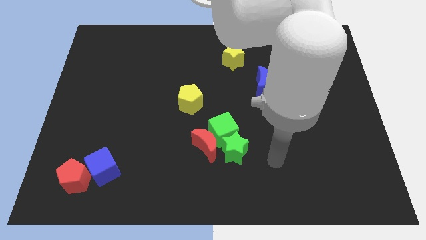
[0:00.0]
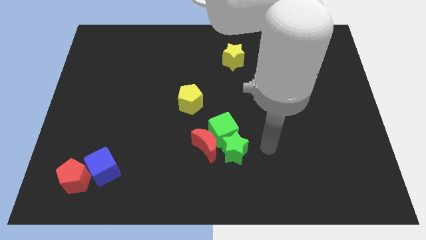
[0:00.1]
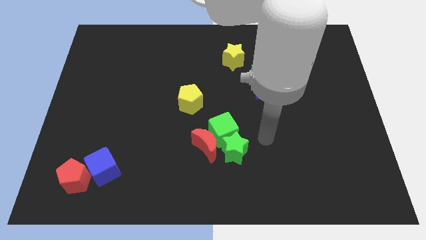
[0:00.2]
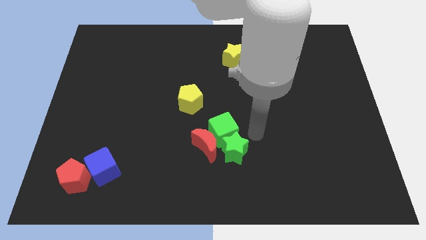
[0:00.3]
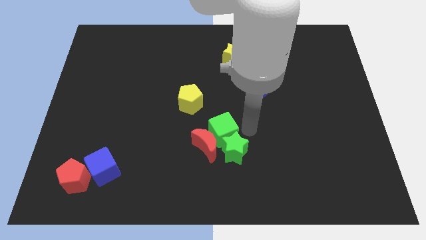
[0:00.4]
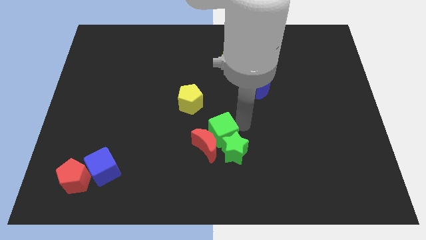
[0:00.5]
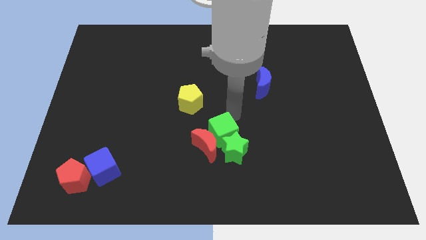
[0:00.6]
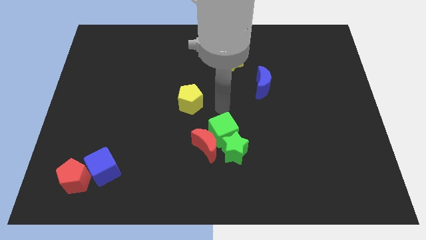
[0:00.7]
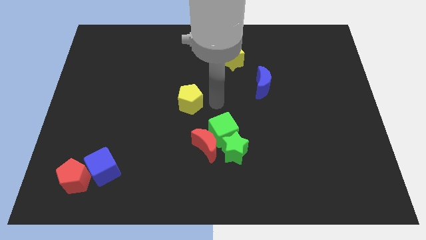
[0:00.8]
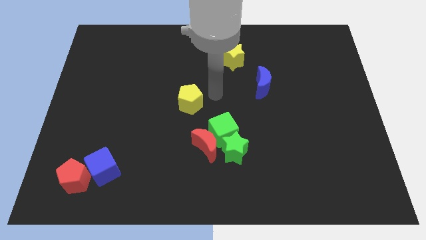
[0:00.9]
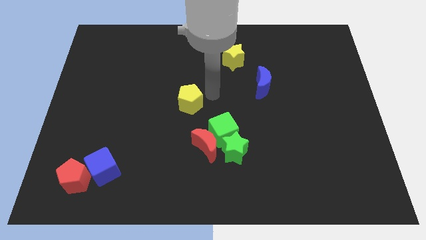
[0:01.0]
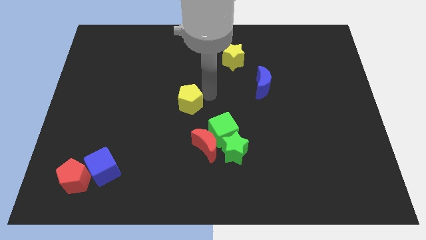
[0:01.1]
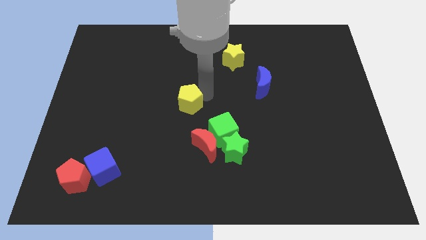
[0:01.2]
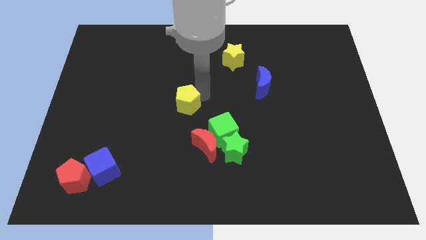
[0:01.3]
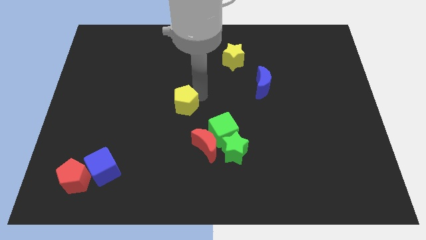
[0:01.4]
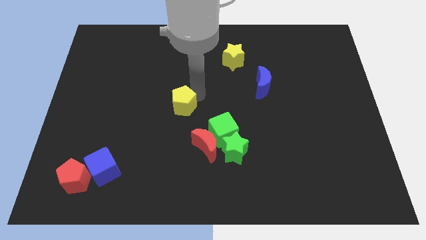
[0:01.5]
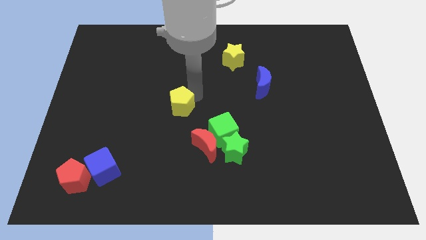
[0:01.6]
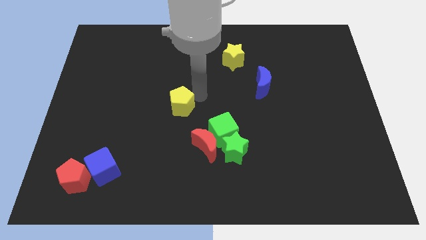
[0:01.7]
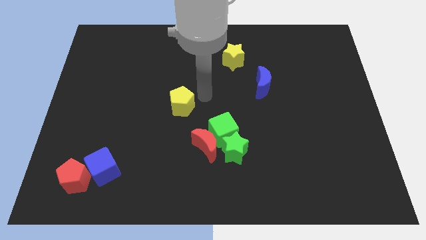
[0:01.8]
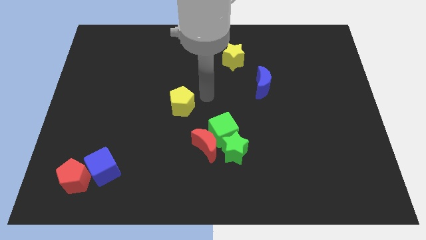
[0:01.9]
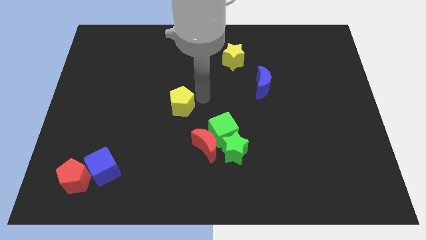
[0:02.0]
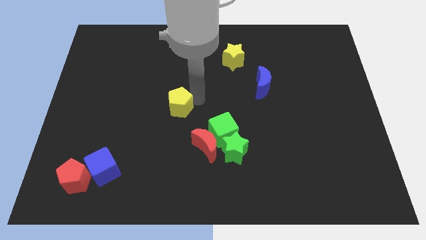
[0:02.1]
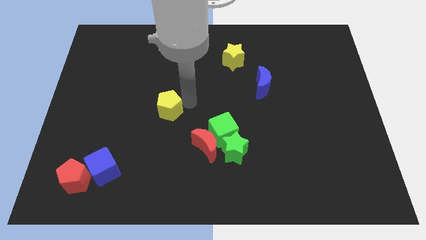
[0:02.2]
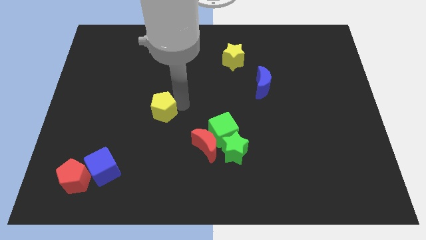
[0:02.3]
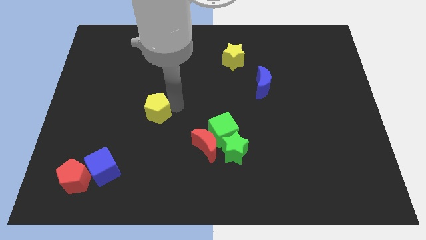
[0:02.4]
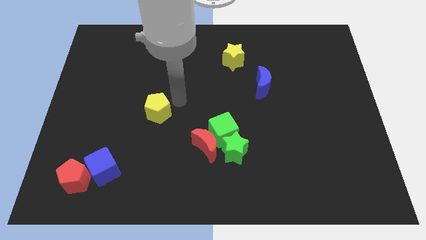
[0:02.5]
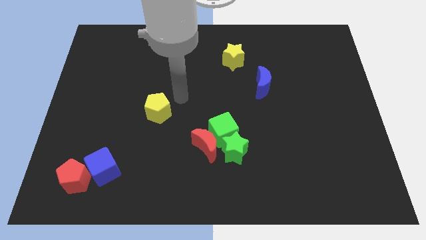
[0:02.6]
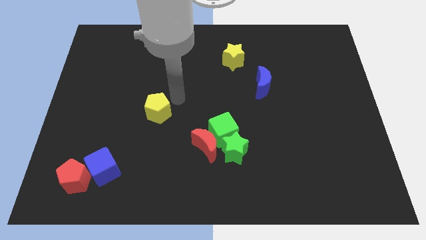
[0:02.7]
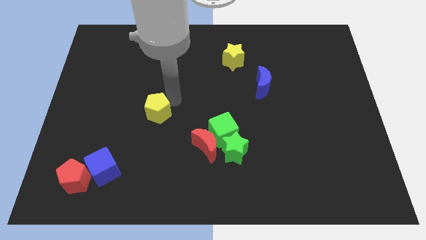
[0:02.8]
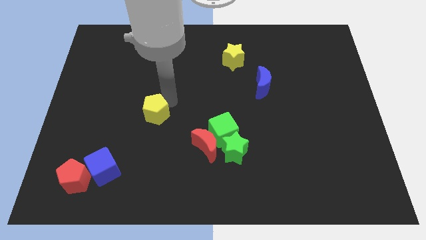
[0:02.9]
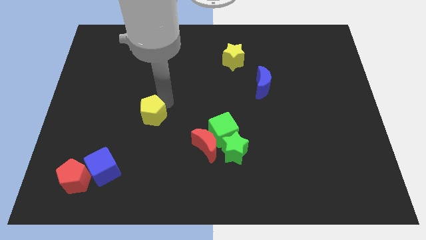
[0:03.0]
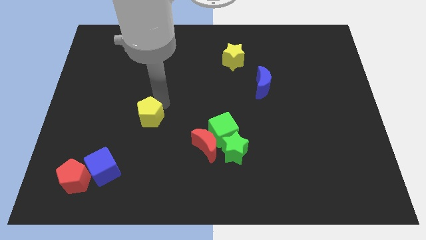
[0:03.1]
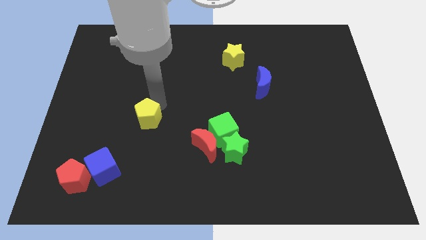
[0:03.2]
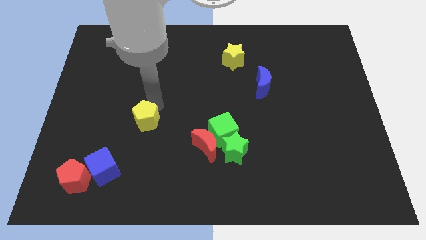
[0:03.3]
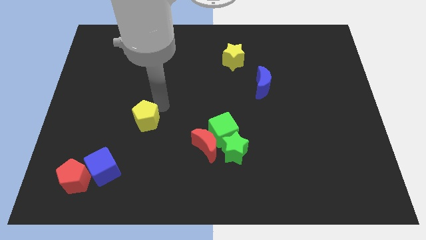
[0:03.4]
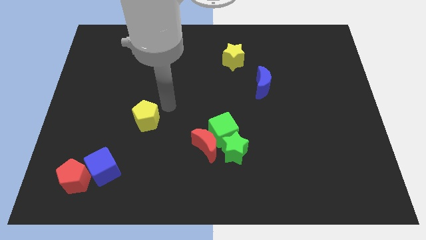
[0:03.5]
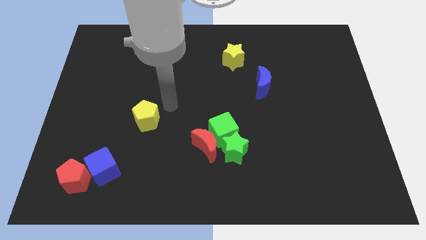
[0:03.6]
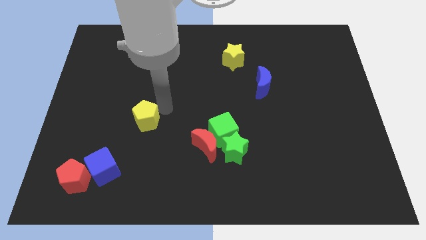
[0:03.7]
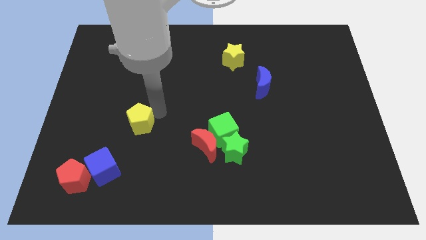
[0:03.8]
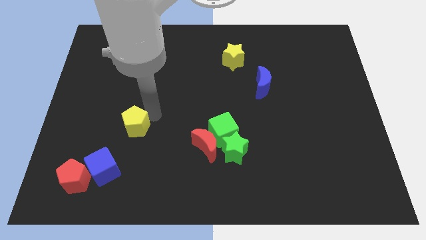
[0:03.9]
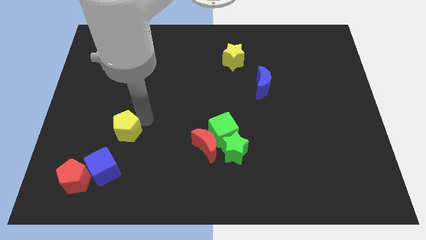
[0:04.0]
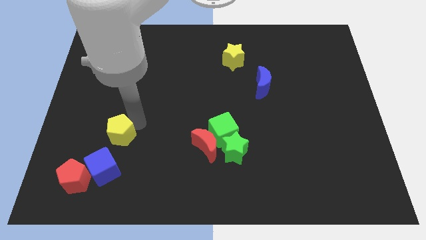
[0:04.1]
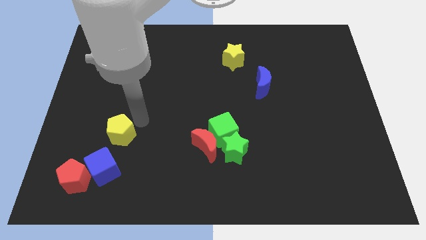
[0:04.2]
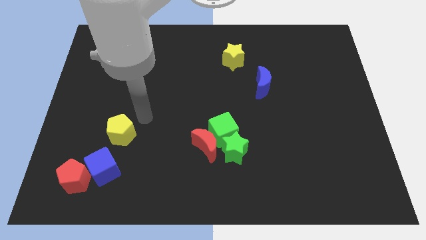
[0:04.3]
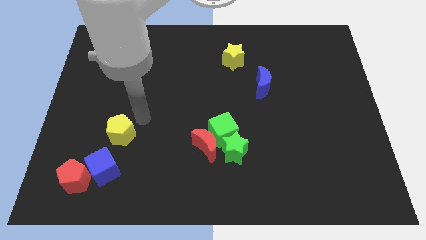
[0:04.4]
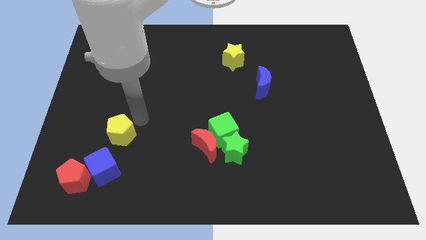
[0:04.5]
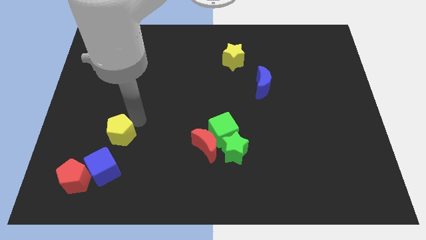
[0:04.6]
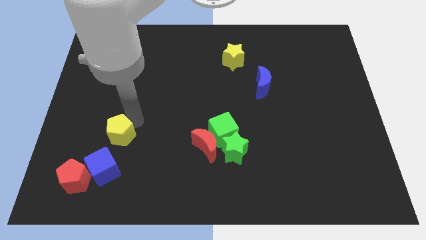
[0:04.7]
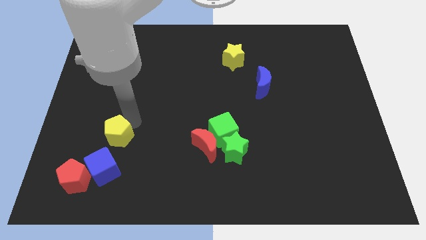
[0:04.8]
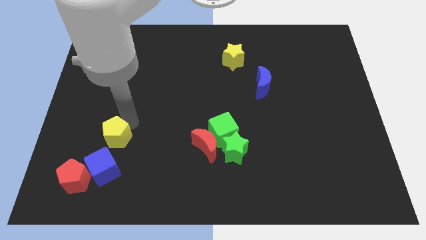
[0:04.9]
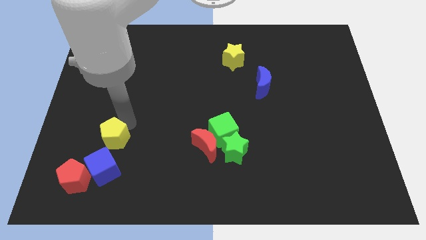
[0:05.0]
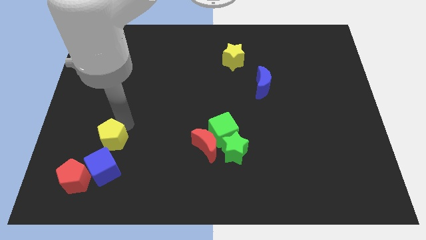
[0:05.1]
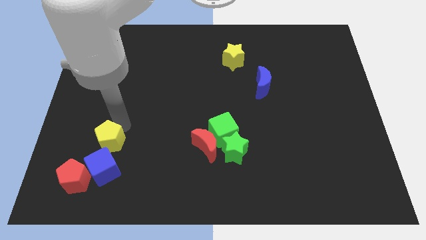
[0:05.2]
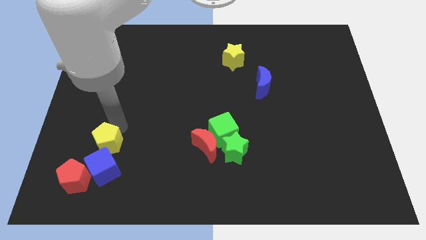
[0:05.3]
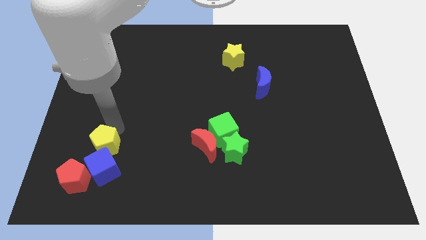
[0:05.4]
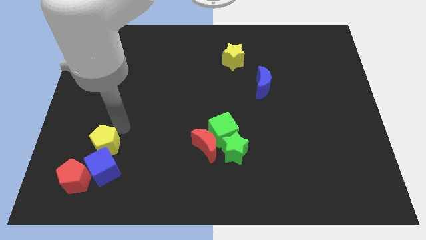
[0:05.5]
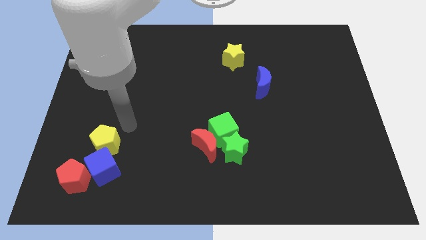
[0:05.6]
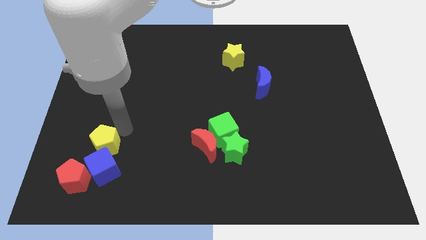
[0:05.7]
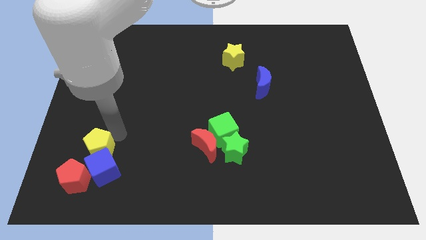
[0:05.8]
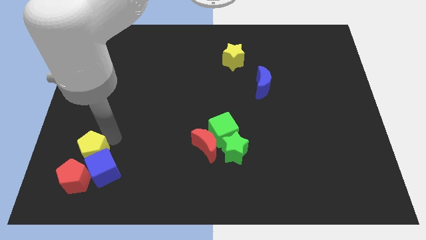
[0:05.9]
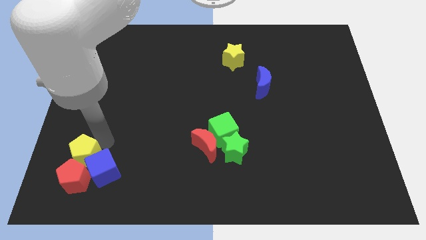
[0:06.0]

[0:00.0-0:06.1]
put the yellow pentagon next to the red pentagon

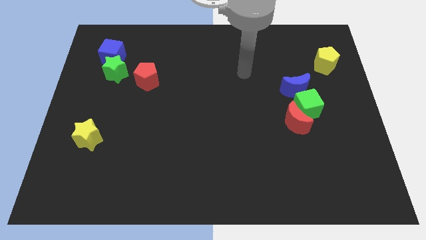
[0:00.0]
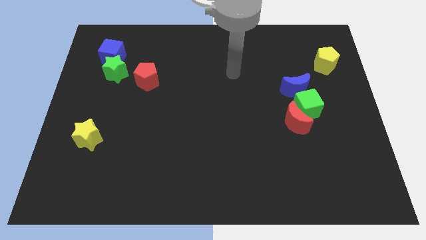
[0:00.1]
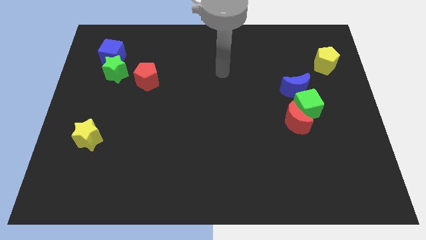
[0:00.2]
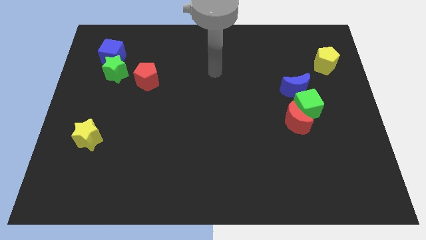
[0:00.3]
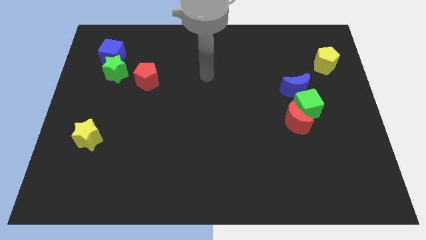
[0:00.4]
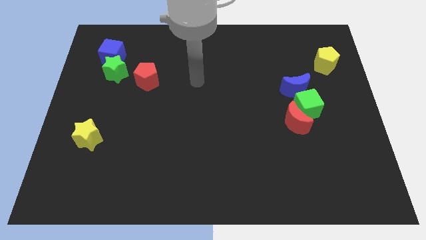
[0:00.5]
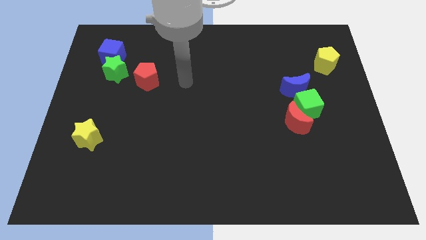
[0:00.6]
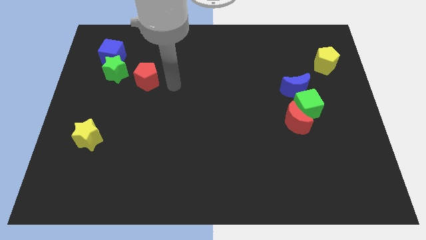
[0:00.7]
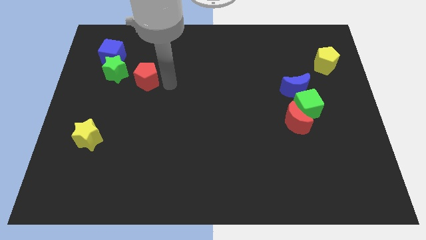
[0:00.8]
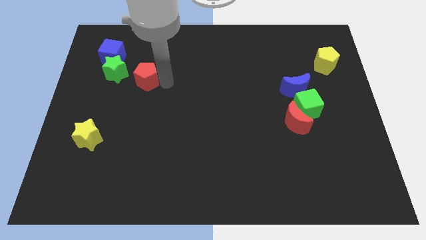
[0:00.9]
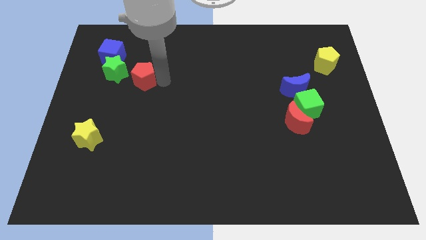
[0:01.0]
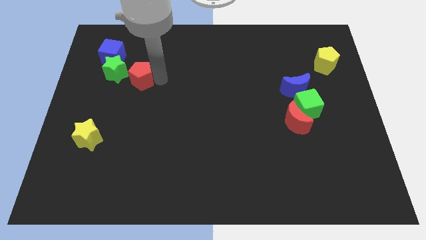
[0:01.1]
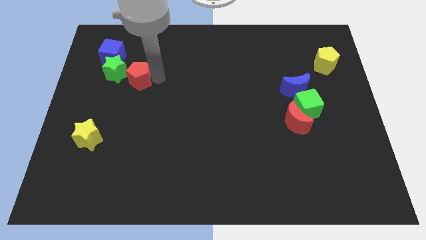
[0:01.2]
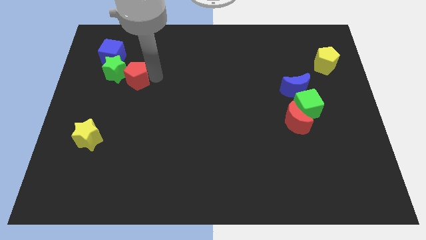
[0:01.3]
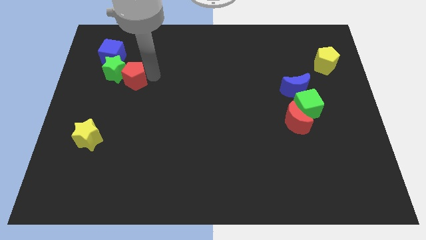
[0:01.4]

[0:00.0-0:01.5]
move the red pentagon towards the green star
